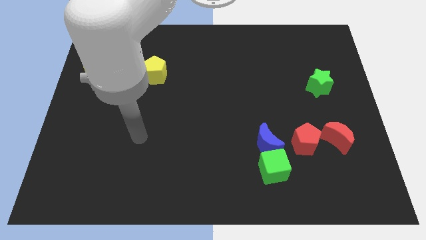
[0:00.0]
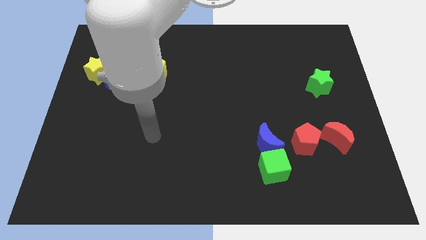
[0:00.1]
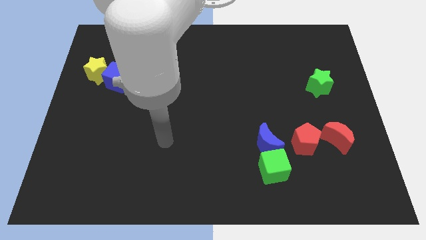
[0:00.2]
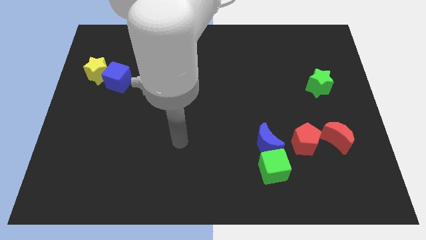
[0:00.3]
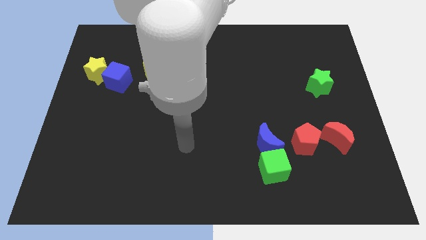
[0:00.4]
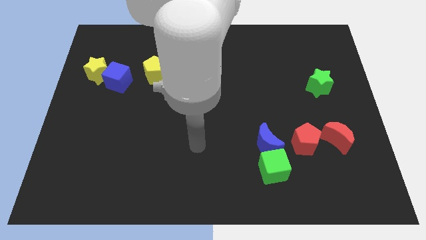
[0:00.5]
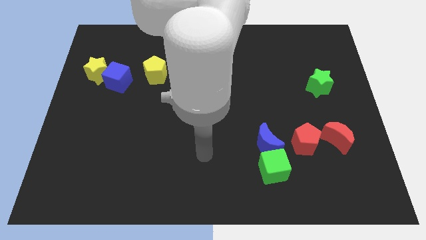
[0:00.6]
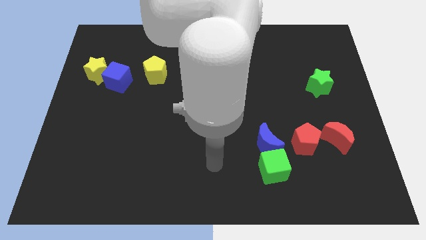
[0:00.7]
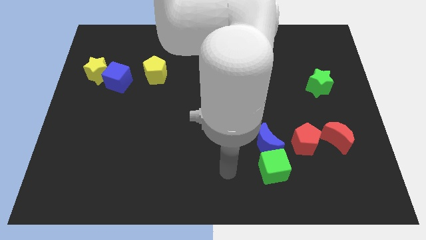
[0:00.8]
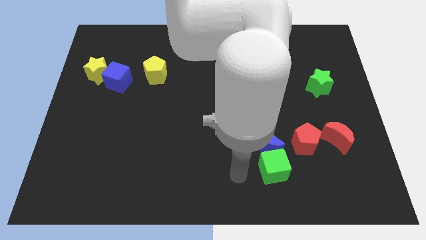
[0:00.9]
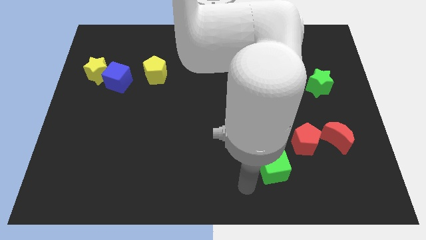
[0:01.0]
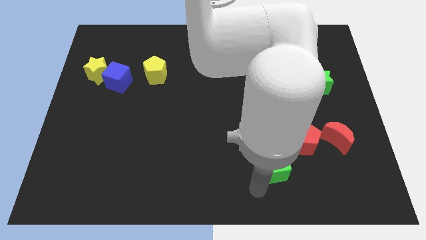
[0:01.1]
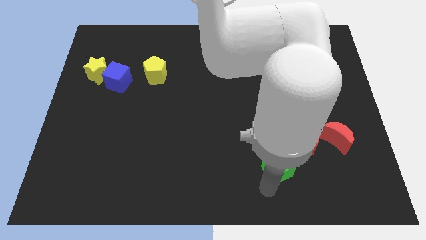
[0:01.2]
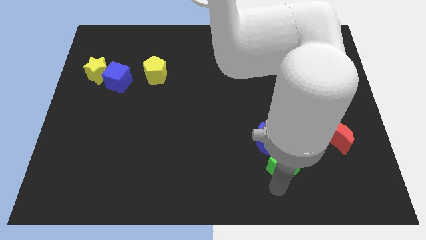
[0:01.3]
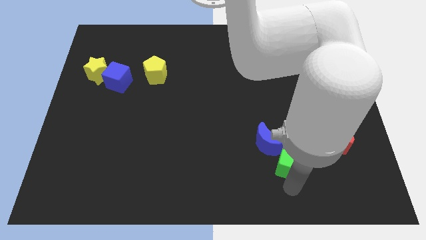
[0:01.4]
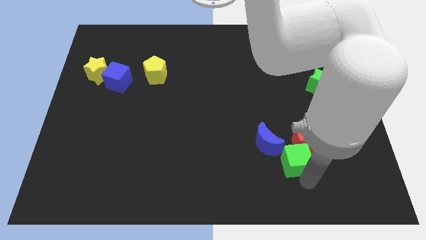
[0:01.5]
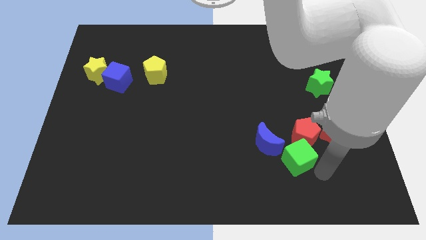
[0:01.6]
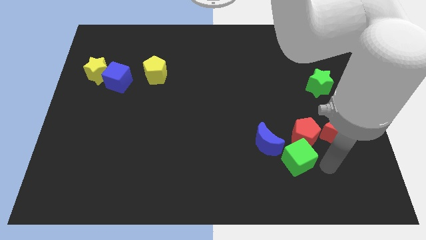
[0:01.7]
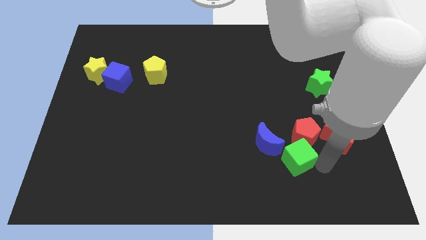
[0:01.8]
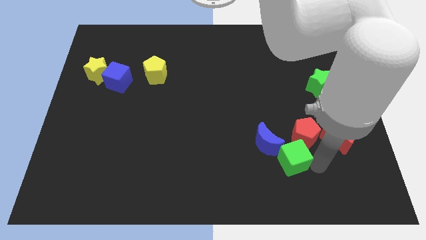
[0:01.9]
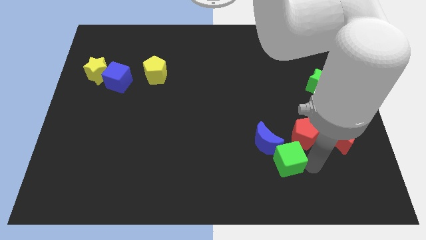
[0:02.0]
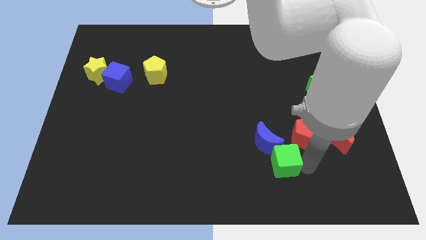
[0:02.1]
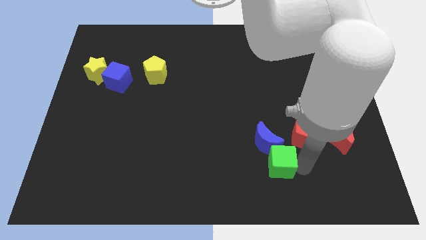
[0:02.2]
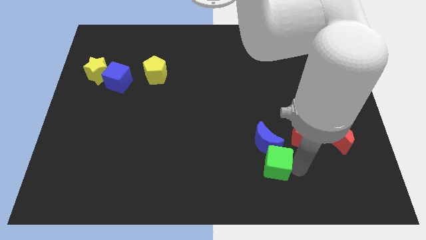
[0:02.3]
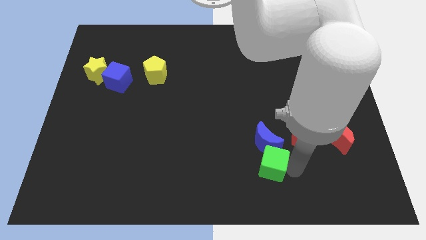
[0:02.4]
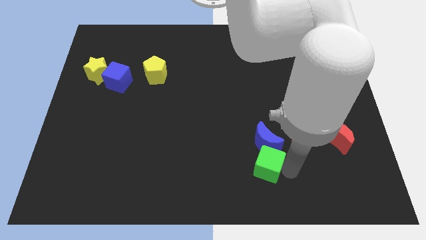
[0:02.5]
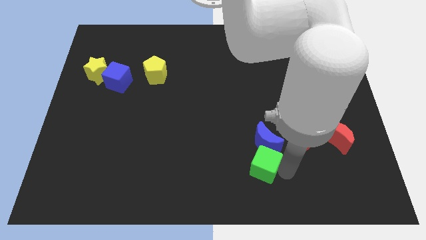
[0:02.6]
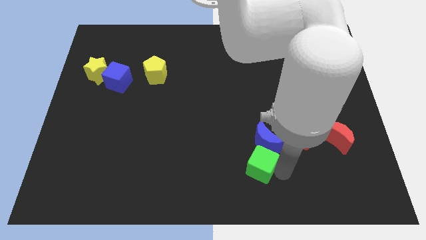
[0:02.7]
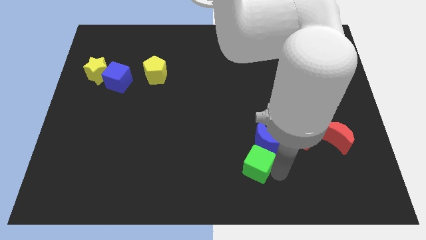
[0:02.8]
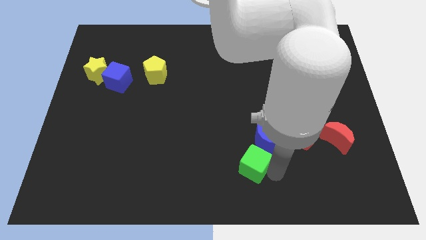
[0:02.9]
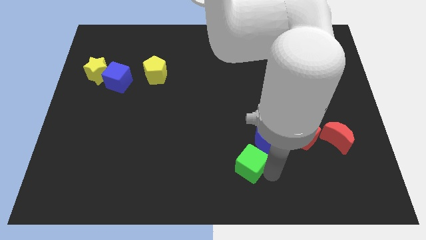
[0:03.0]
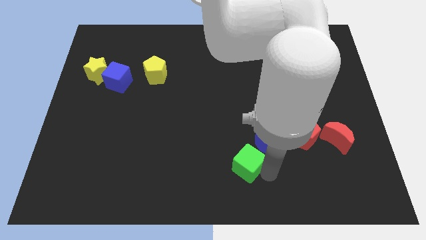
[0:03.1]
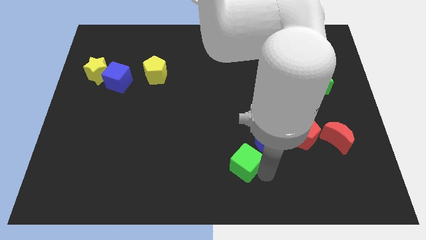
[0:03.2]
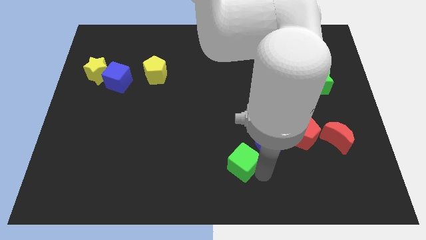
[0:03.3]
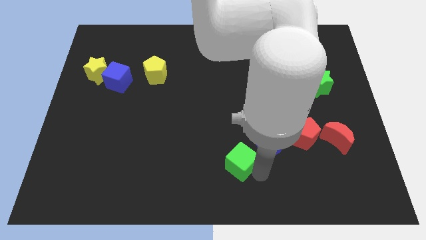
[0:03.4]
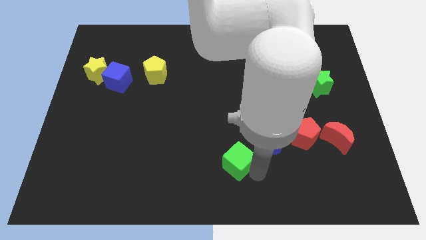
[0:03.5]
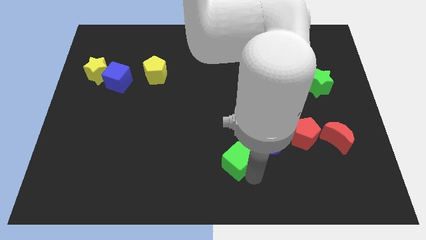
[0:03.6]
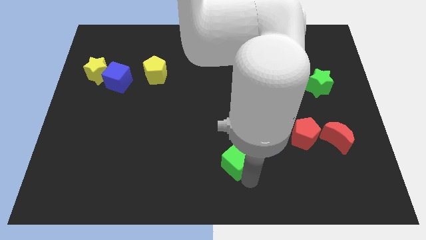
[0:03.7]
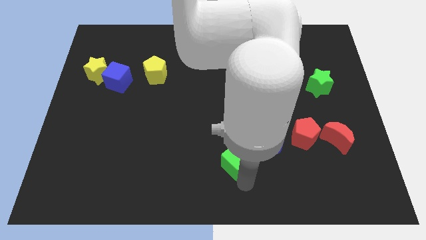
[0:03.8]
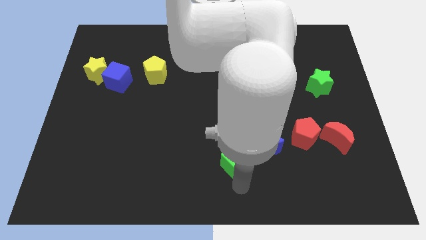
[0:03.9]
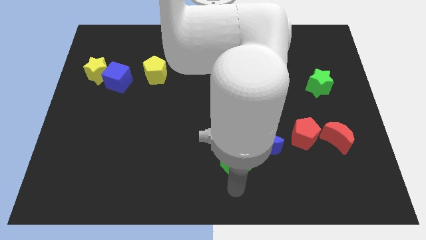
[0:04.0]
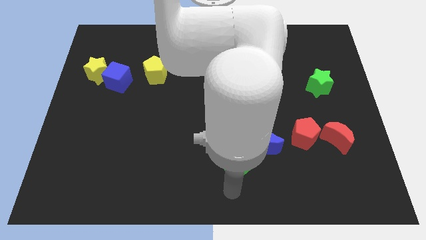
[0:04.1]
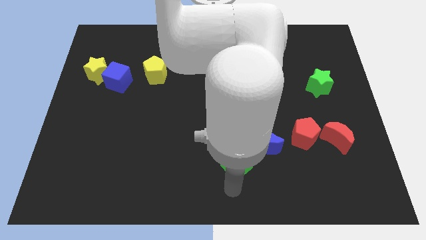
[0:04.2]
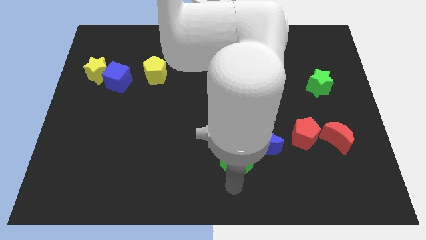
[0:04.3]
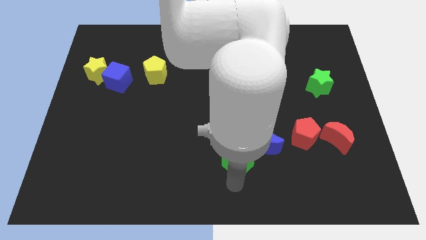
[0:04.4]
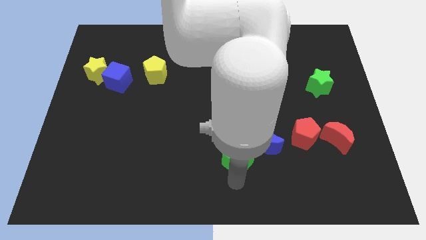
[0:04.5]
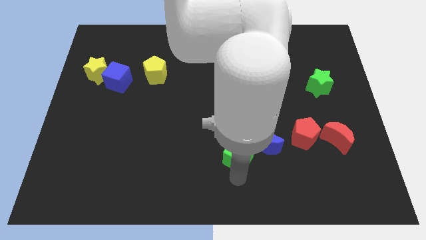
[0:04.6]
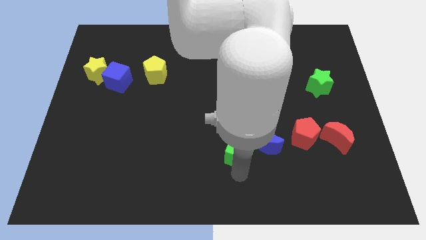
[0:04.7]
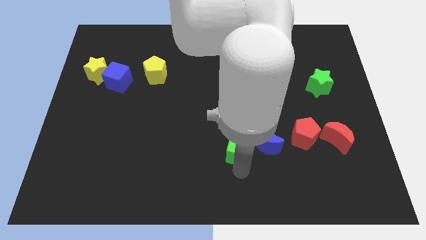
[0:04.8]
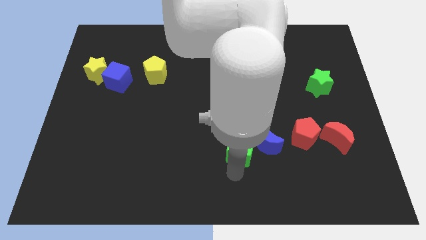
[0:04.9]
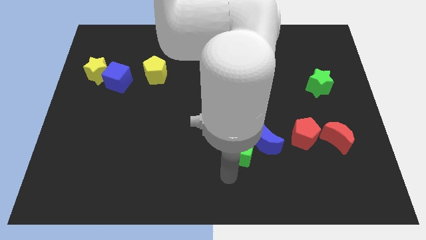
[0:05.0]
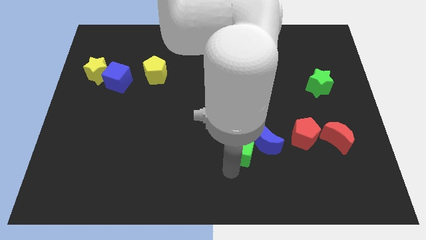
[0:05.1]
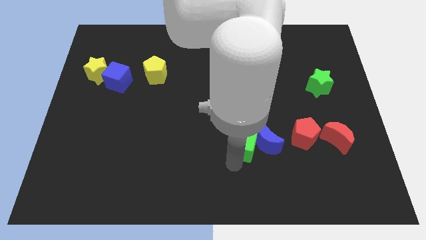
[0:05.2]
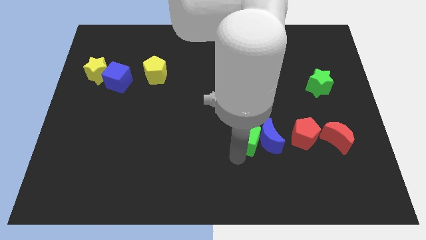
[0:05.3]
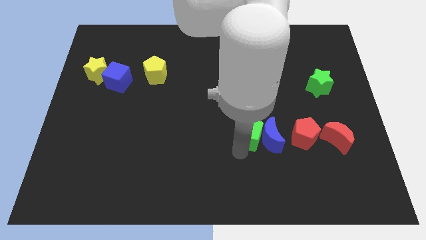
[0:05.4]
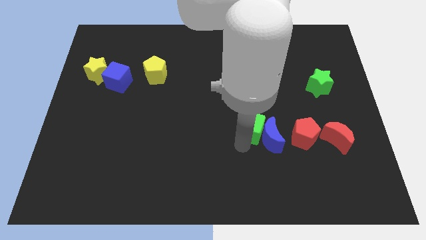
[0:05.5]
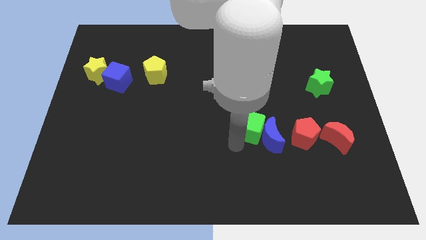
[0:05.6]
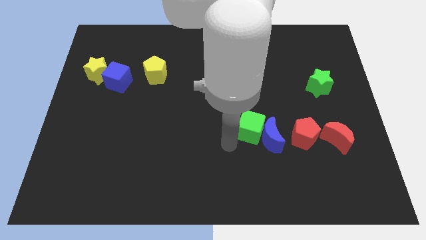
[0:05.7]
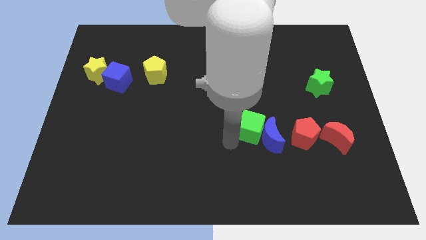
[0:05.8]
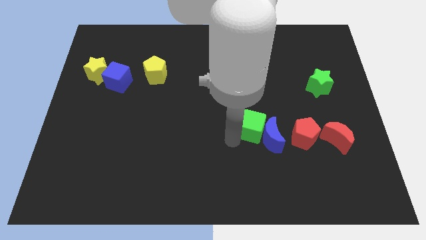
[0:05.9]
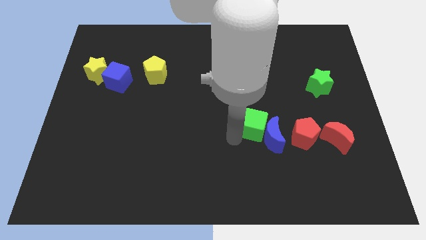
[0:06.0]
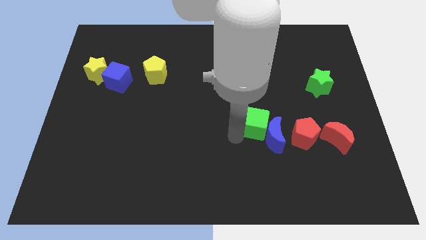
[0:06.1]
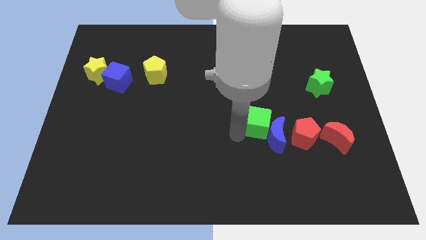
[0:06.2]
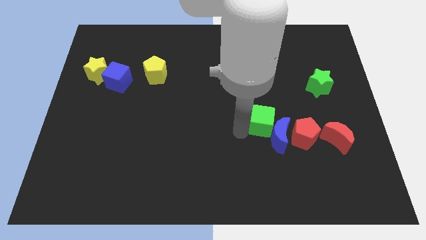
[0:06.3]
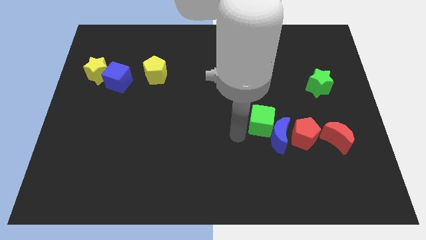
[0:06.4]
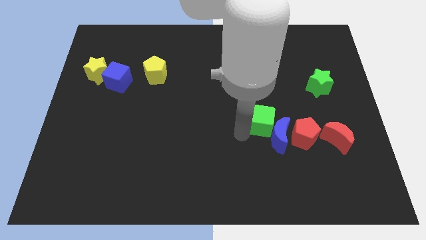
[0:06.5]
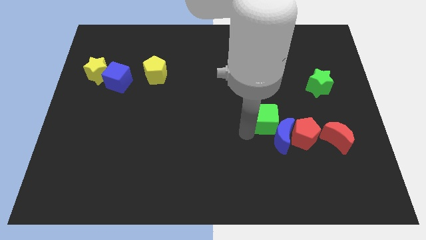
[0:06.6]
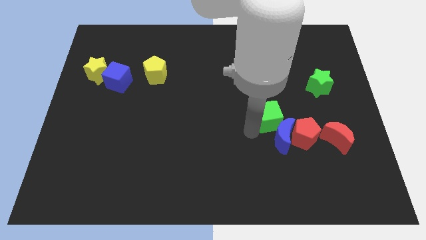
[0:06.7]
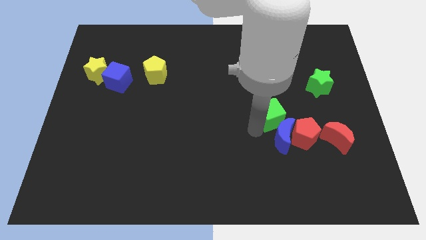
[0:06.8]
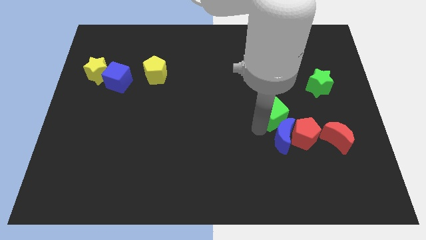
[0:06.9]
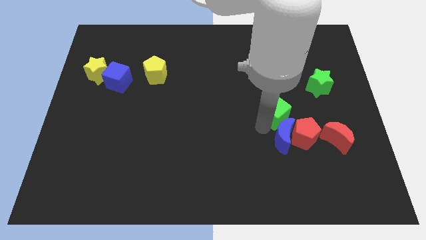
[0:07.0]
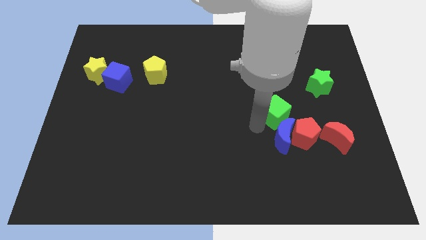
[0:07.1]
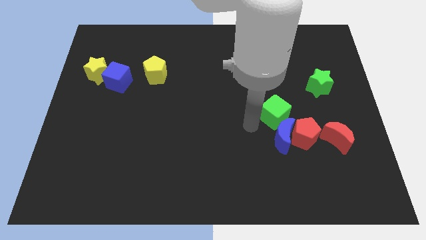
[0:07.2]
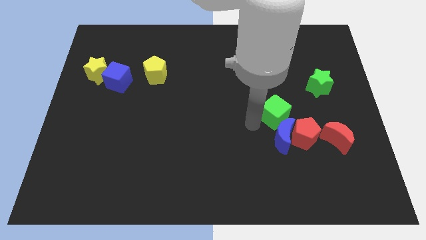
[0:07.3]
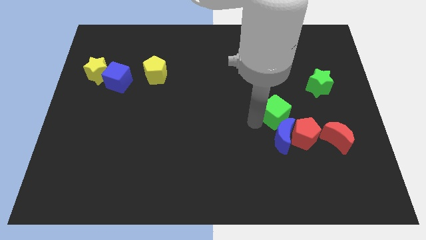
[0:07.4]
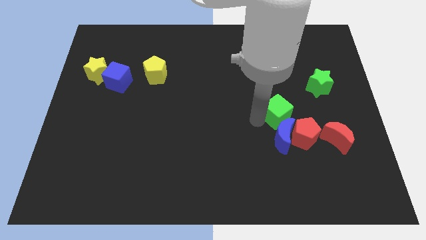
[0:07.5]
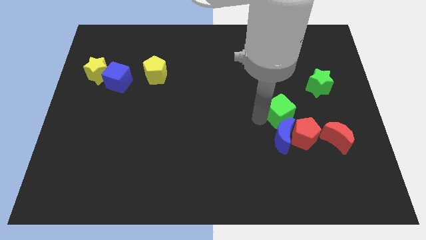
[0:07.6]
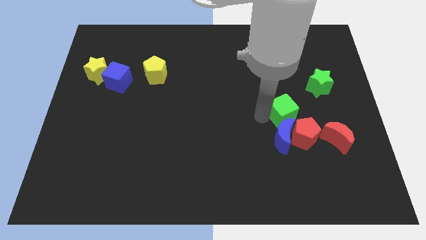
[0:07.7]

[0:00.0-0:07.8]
push the green cube to the bottom left side of the green star
